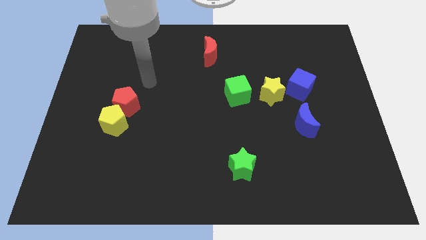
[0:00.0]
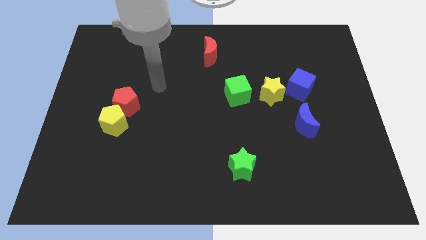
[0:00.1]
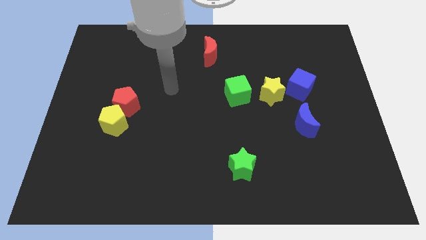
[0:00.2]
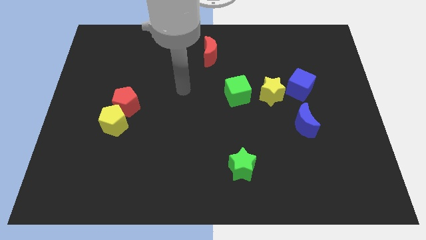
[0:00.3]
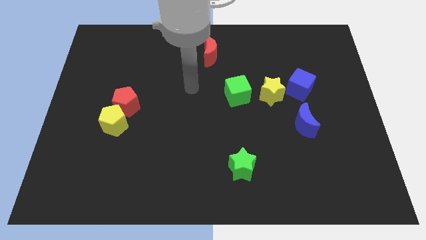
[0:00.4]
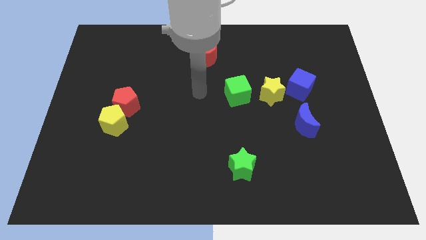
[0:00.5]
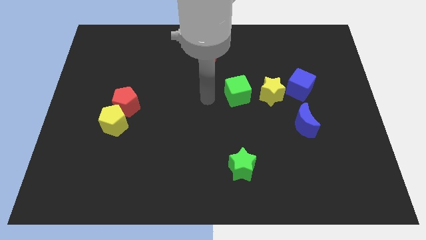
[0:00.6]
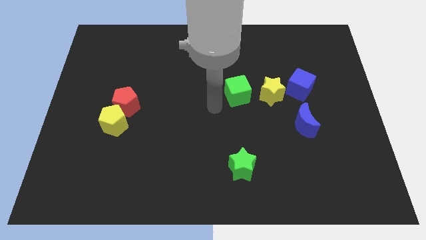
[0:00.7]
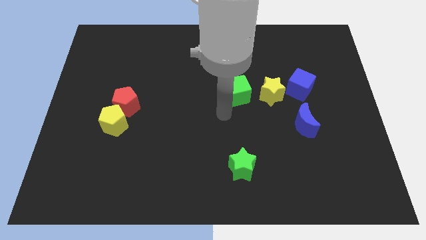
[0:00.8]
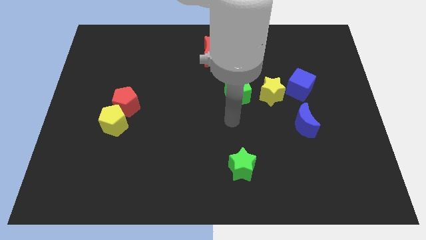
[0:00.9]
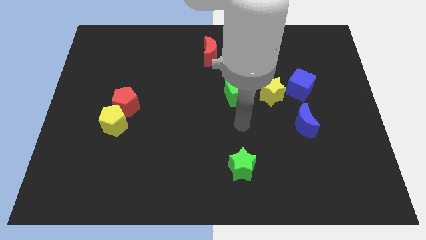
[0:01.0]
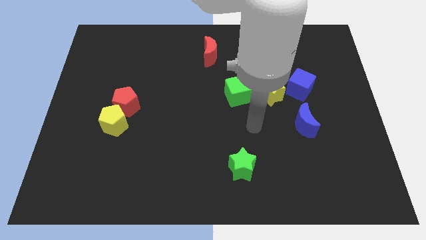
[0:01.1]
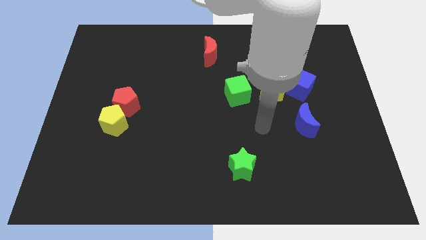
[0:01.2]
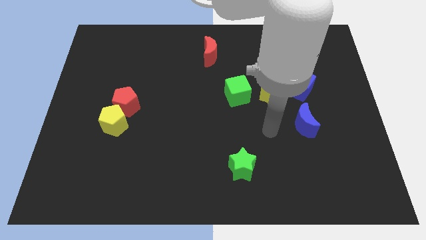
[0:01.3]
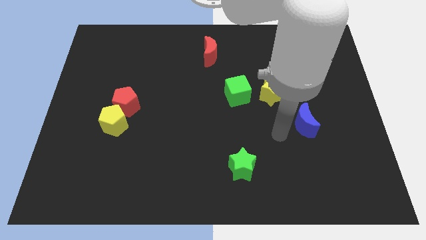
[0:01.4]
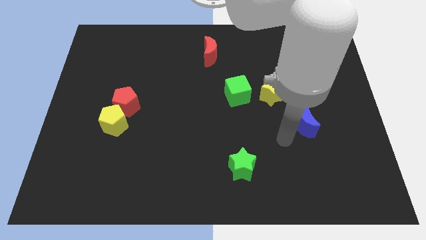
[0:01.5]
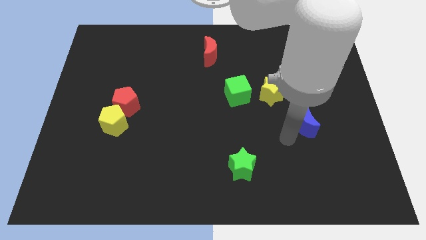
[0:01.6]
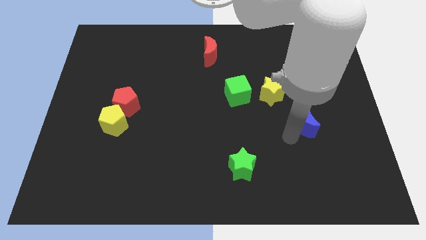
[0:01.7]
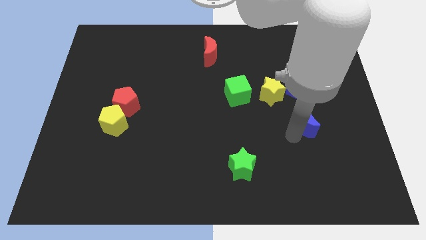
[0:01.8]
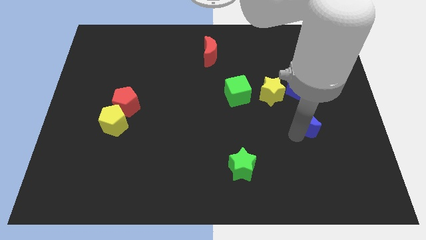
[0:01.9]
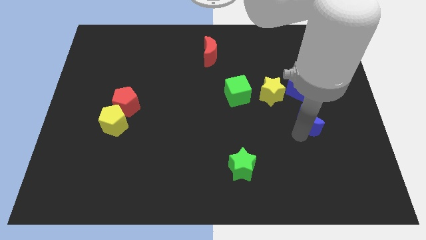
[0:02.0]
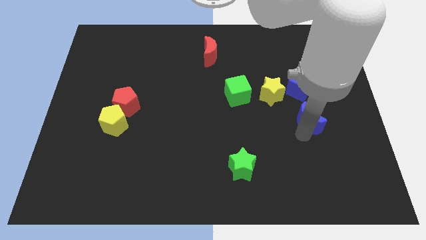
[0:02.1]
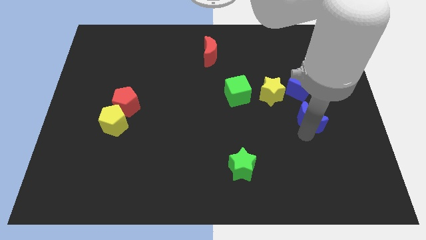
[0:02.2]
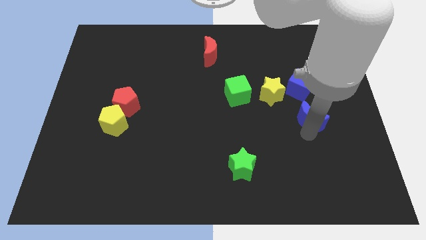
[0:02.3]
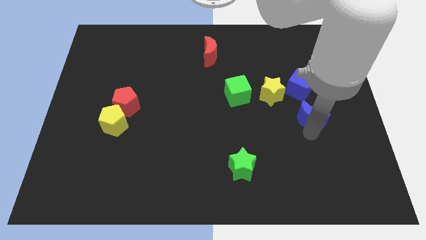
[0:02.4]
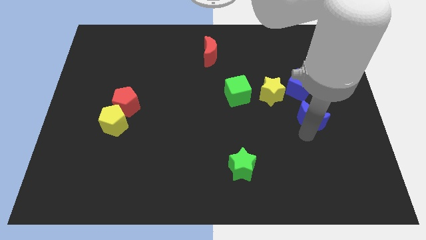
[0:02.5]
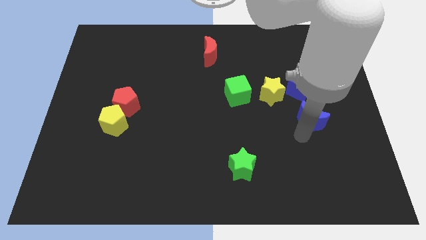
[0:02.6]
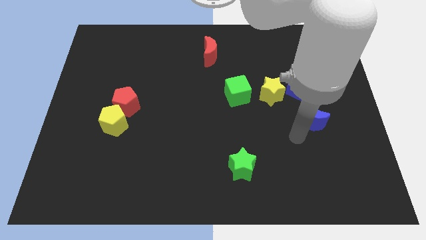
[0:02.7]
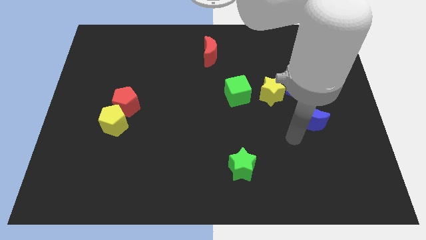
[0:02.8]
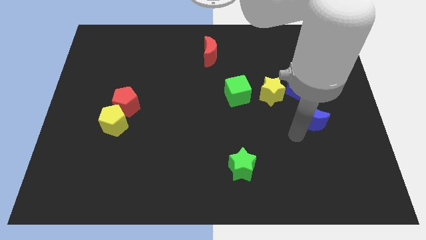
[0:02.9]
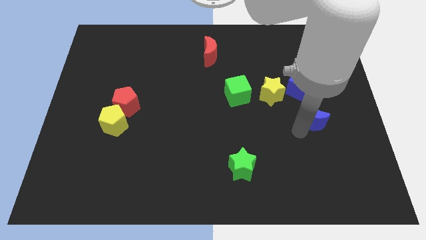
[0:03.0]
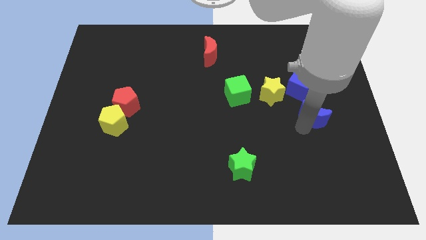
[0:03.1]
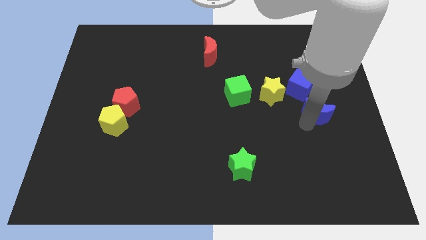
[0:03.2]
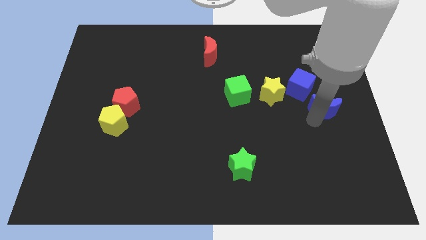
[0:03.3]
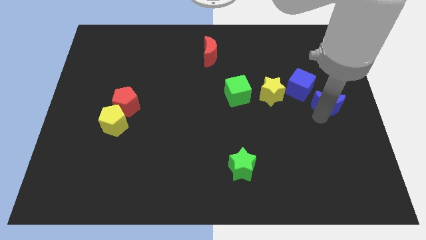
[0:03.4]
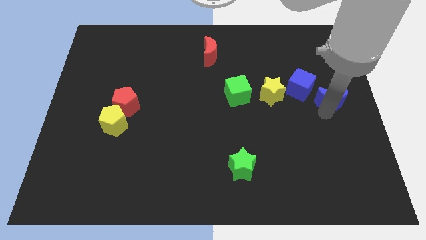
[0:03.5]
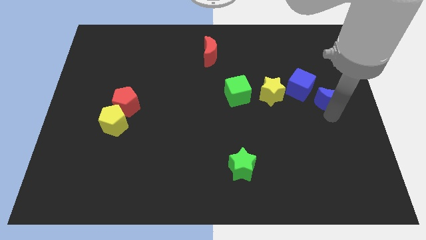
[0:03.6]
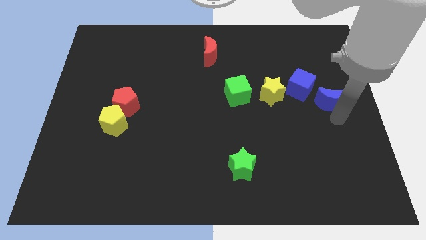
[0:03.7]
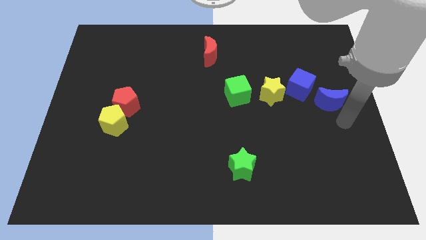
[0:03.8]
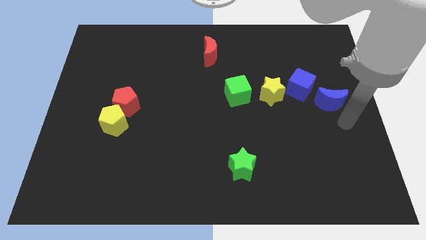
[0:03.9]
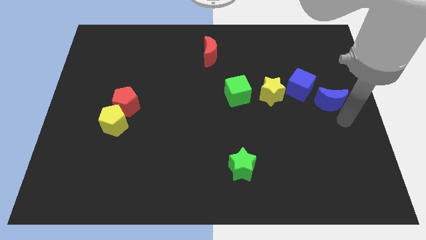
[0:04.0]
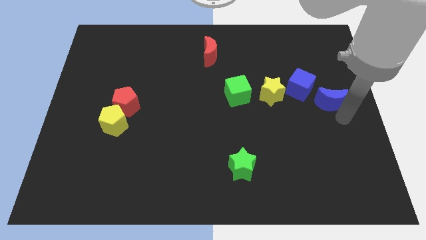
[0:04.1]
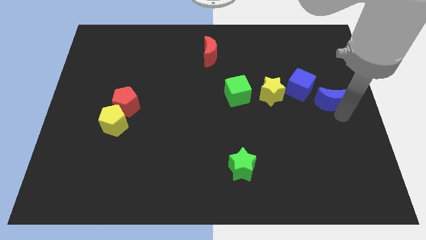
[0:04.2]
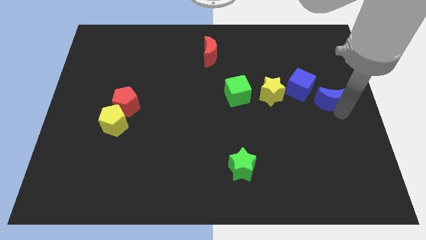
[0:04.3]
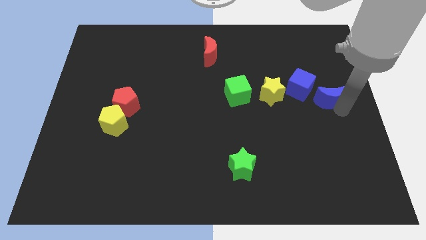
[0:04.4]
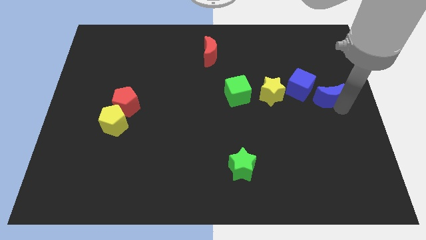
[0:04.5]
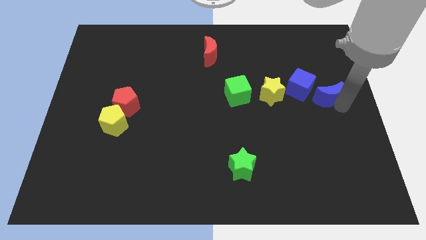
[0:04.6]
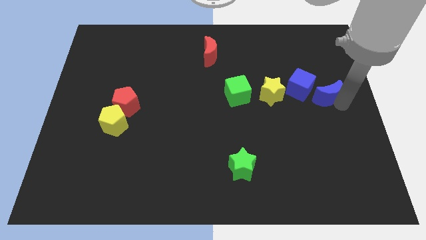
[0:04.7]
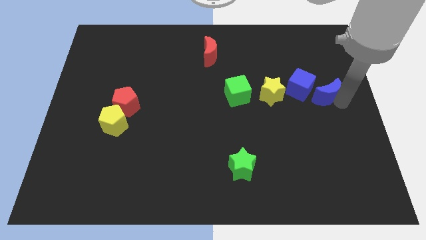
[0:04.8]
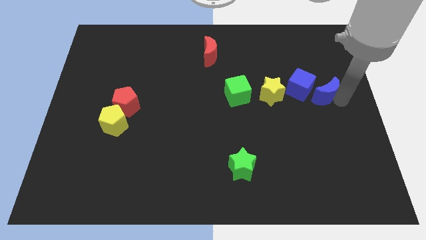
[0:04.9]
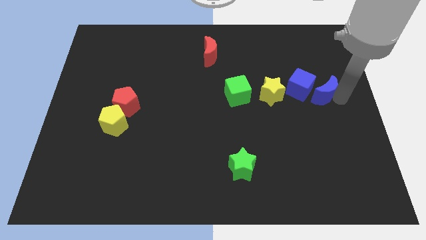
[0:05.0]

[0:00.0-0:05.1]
slightly slide the blue moon upwards

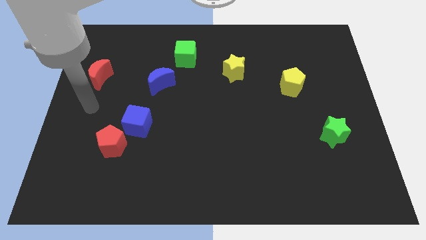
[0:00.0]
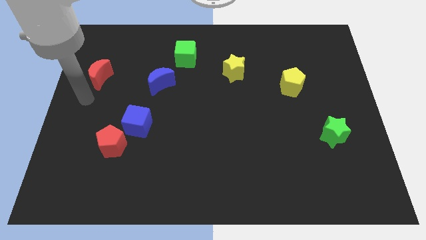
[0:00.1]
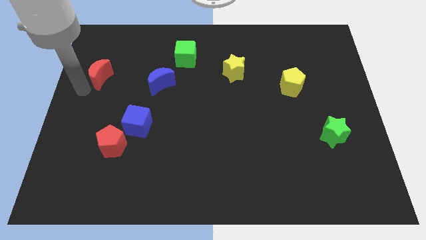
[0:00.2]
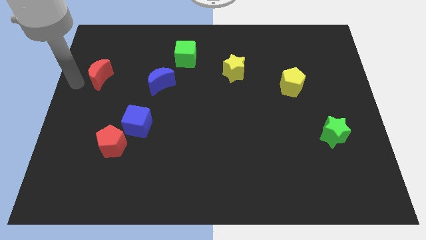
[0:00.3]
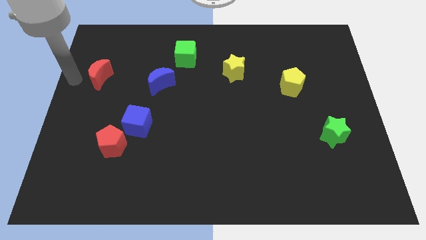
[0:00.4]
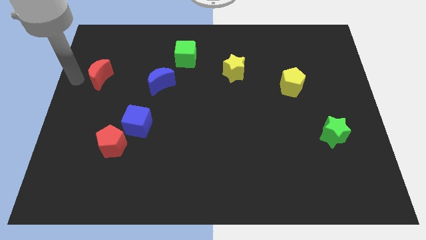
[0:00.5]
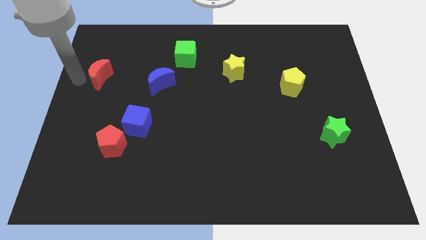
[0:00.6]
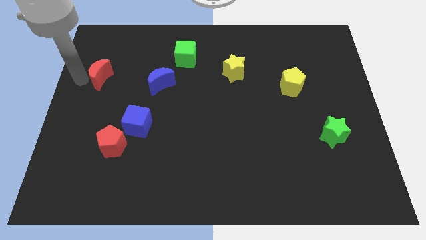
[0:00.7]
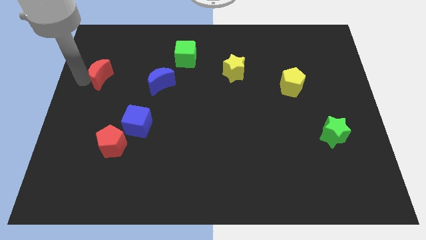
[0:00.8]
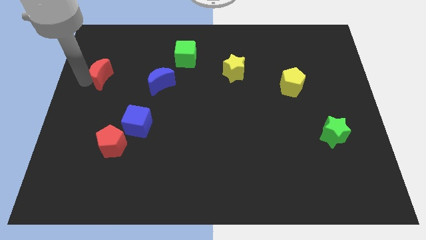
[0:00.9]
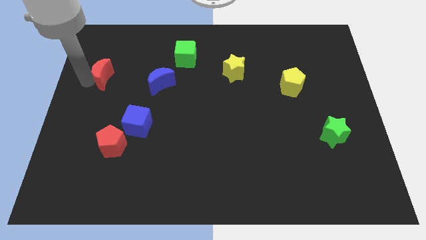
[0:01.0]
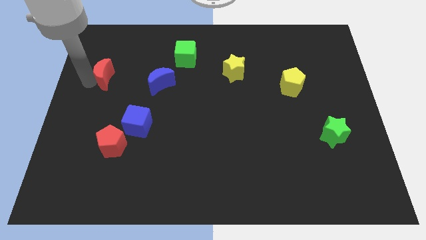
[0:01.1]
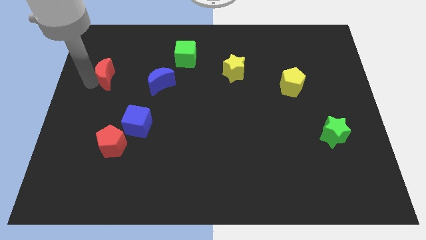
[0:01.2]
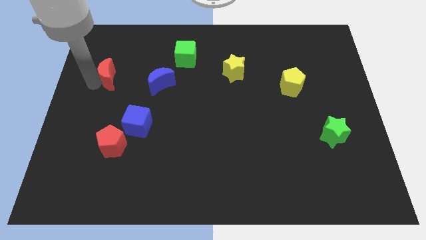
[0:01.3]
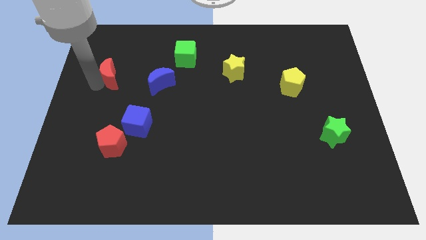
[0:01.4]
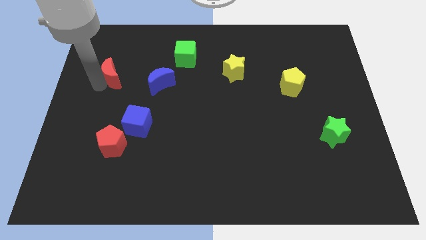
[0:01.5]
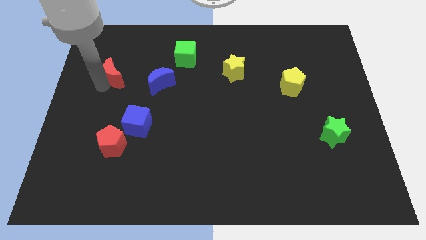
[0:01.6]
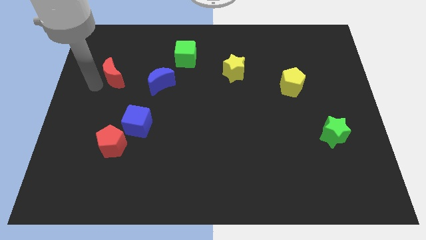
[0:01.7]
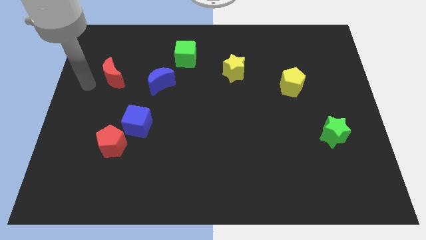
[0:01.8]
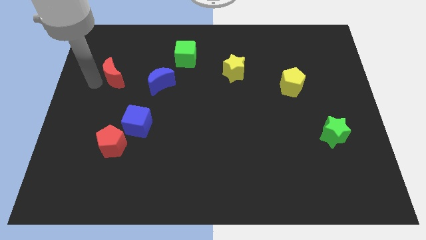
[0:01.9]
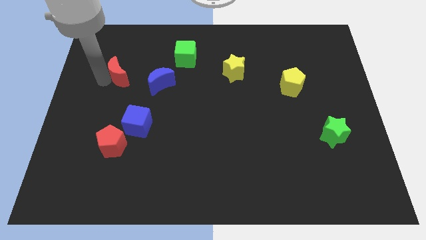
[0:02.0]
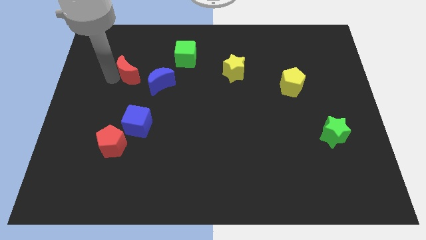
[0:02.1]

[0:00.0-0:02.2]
push the red moon to the right a bit
